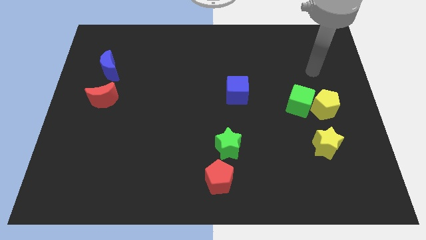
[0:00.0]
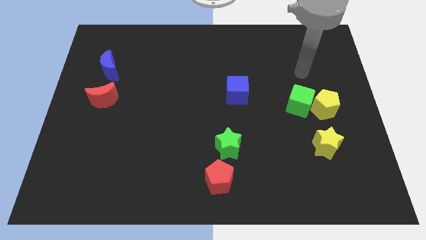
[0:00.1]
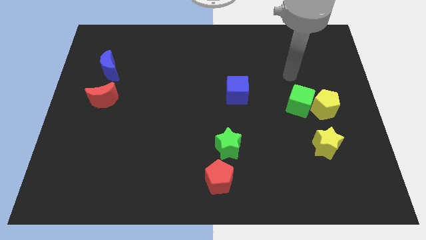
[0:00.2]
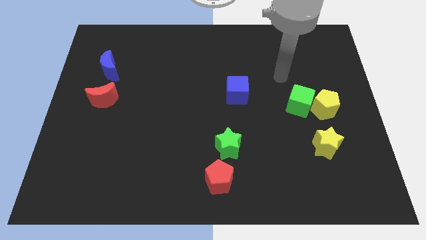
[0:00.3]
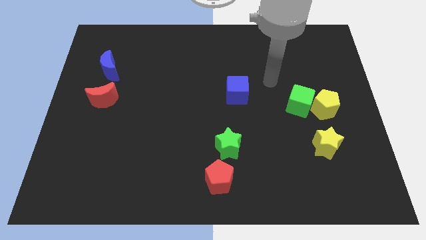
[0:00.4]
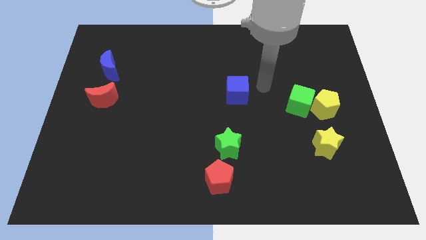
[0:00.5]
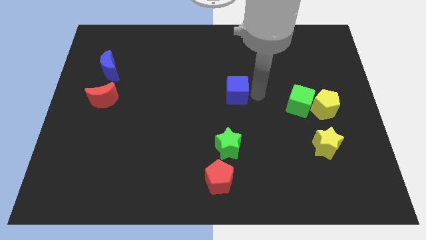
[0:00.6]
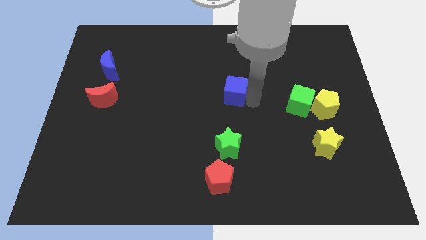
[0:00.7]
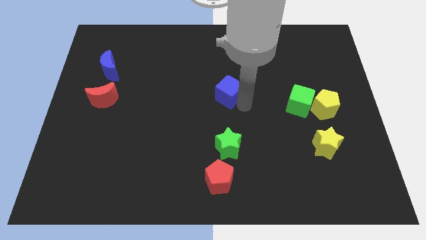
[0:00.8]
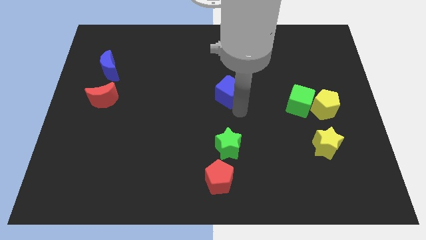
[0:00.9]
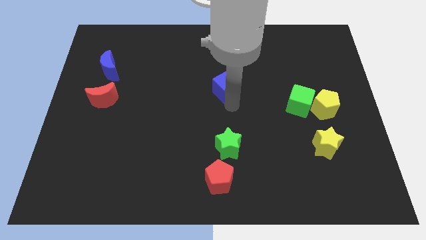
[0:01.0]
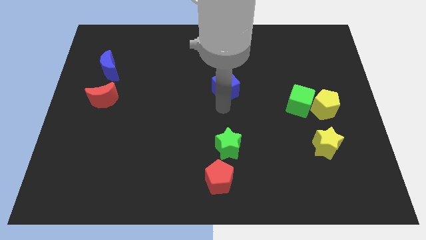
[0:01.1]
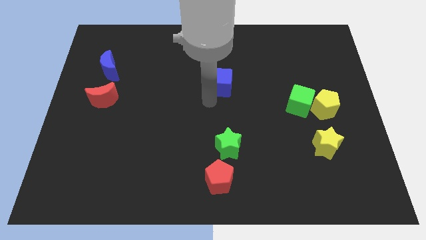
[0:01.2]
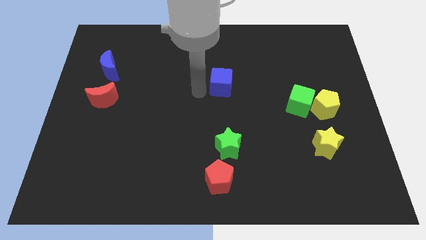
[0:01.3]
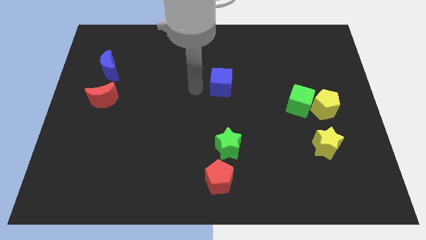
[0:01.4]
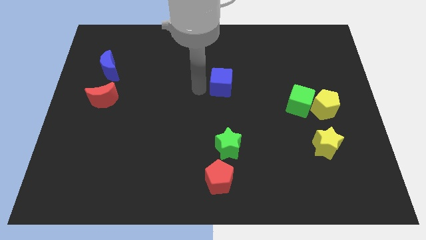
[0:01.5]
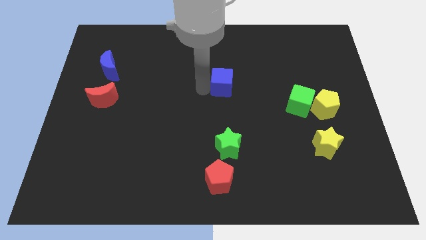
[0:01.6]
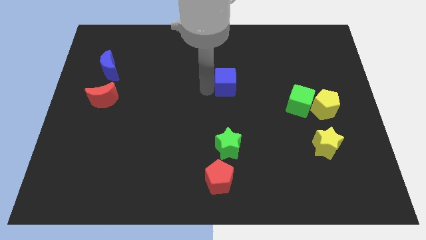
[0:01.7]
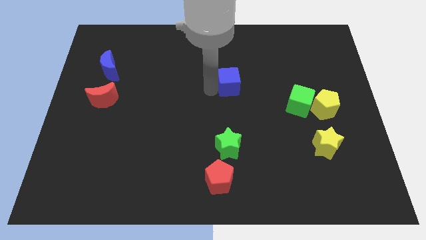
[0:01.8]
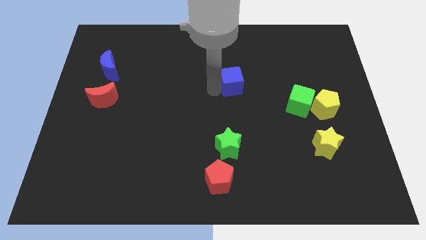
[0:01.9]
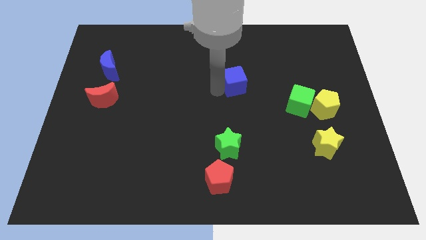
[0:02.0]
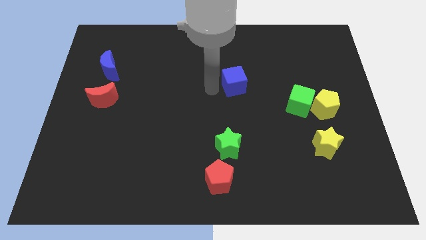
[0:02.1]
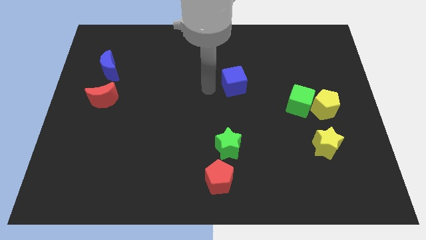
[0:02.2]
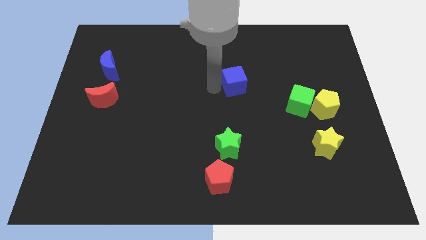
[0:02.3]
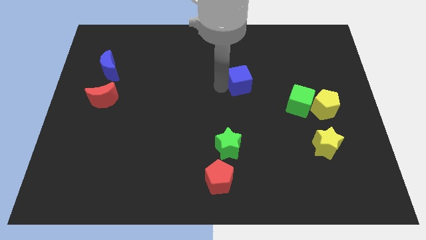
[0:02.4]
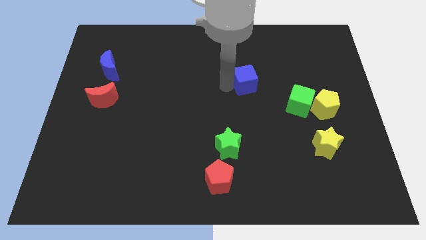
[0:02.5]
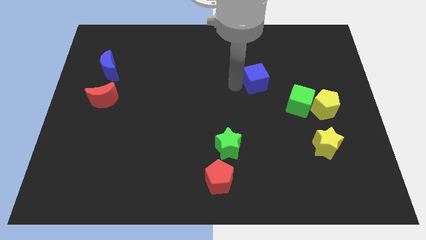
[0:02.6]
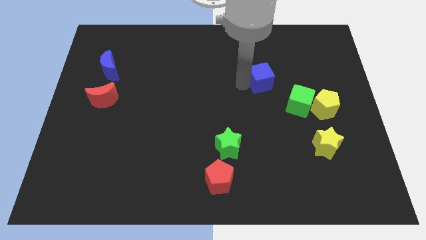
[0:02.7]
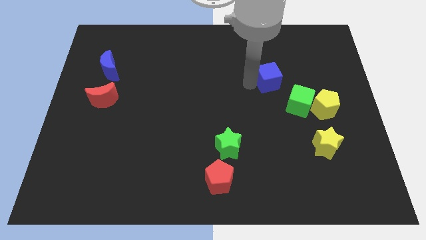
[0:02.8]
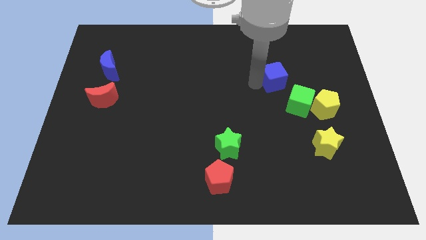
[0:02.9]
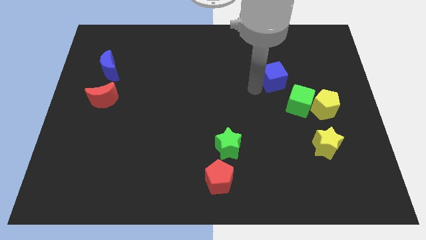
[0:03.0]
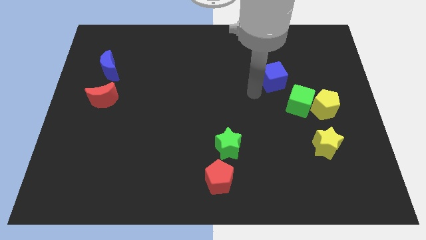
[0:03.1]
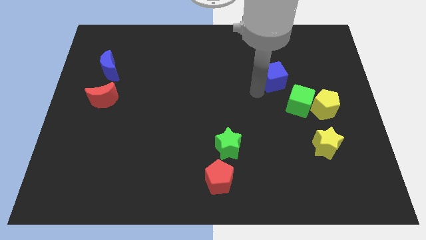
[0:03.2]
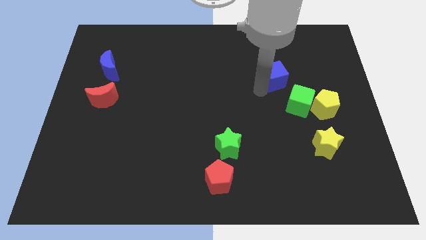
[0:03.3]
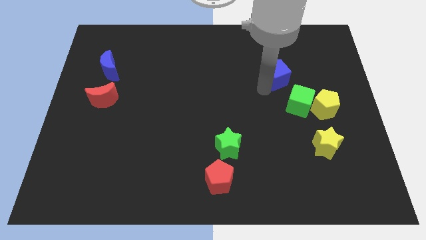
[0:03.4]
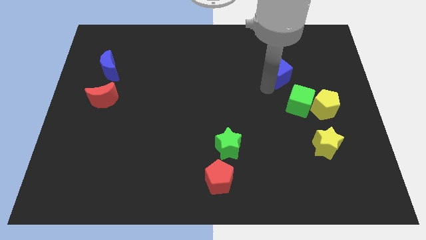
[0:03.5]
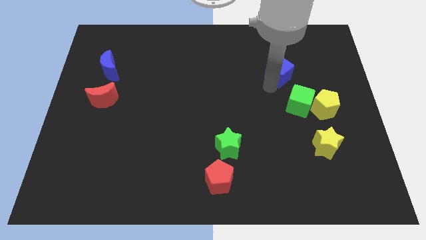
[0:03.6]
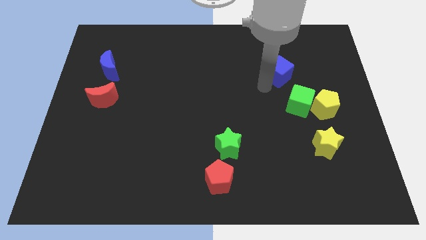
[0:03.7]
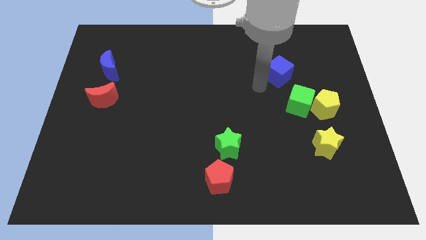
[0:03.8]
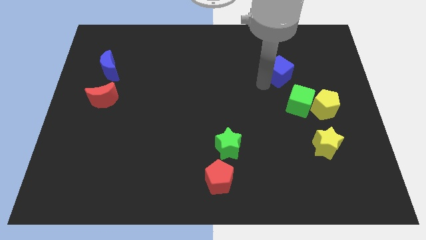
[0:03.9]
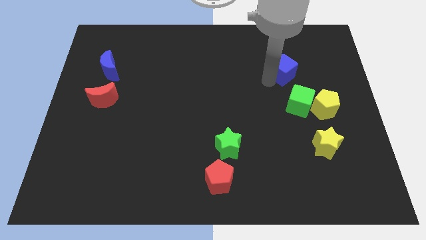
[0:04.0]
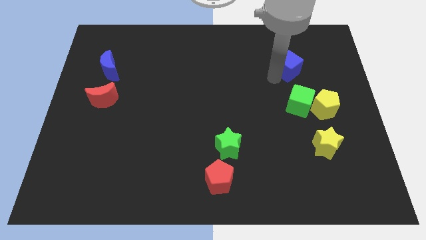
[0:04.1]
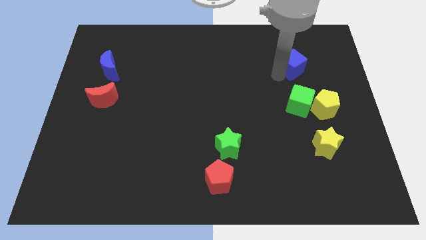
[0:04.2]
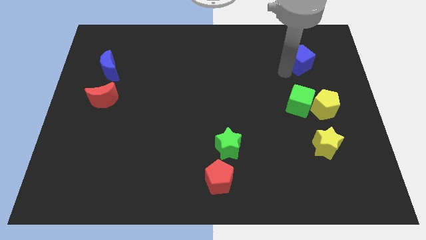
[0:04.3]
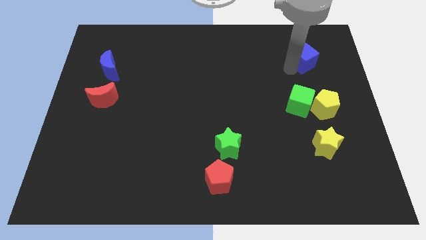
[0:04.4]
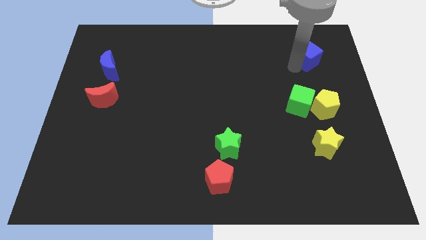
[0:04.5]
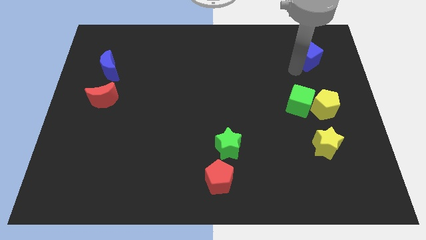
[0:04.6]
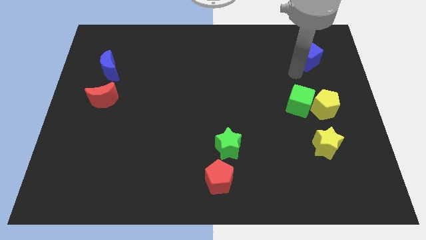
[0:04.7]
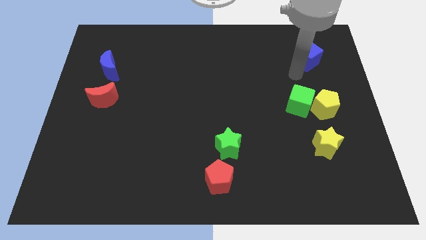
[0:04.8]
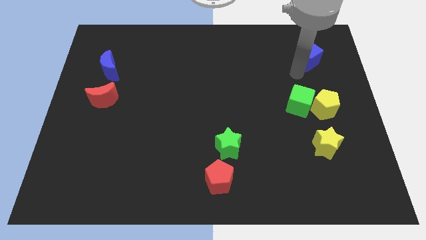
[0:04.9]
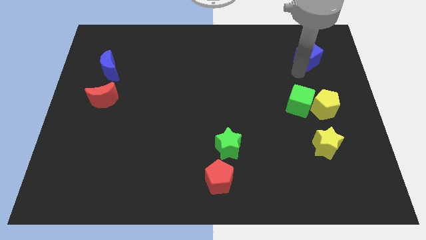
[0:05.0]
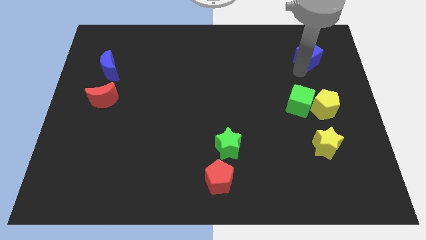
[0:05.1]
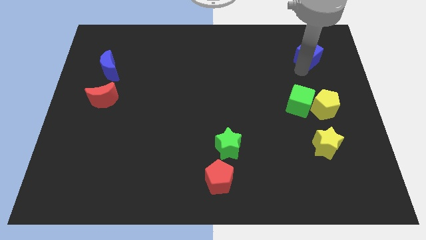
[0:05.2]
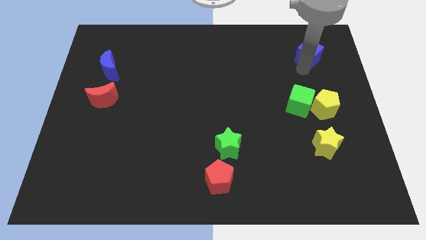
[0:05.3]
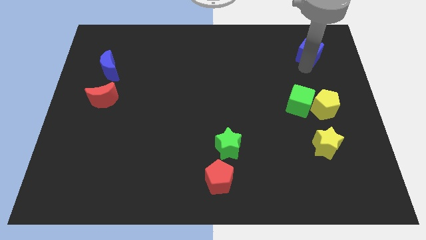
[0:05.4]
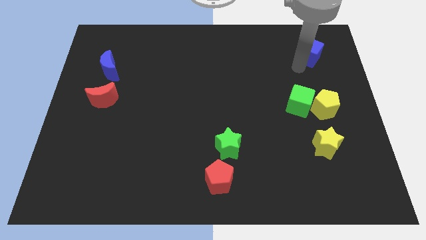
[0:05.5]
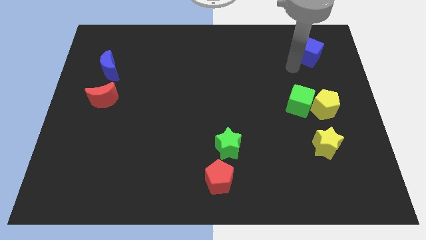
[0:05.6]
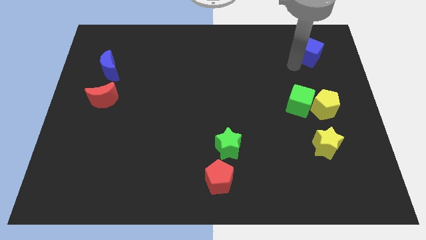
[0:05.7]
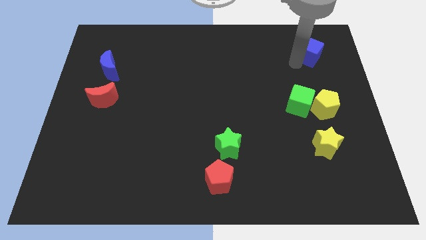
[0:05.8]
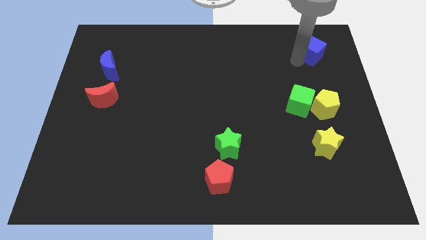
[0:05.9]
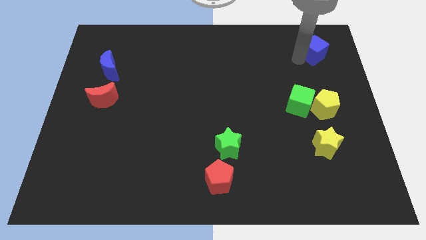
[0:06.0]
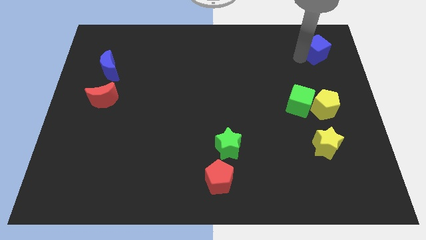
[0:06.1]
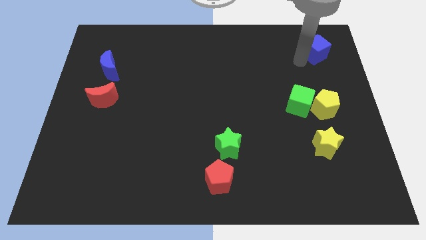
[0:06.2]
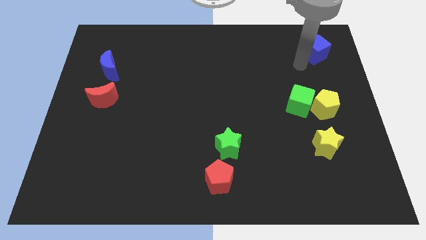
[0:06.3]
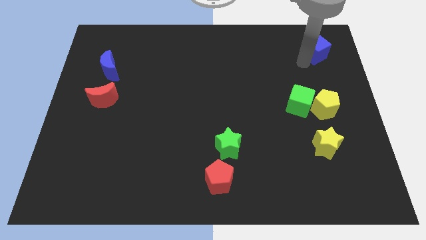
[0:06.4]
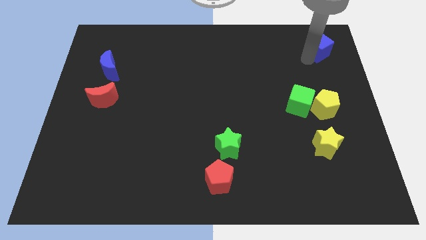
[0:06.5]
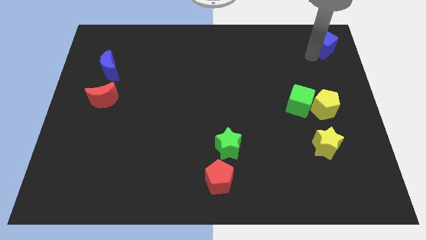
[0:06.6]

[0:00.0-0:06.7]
move the blue cube to the upper right corner
